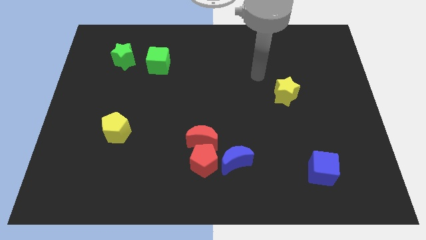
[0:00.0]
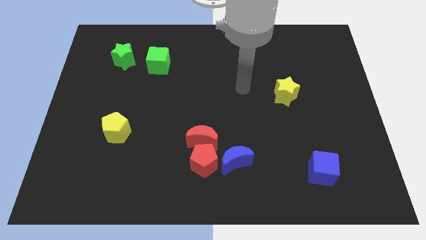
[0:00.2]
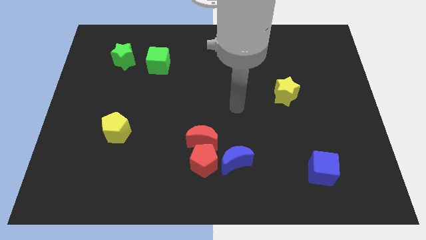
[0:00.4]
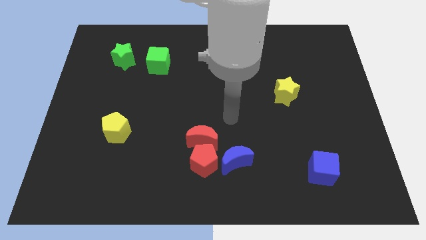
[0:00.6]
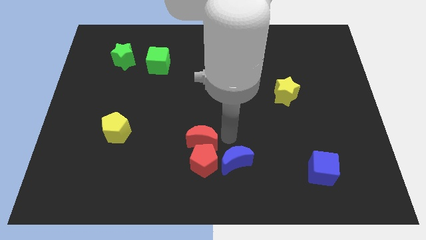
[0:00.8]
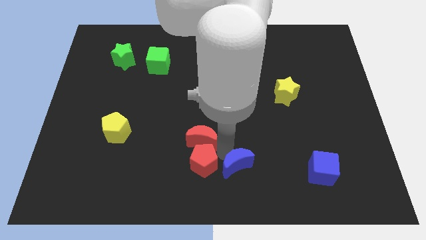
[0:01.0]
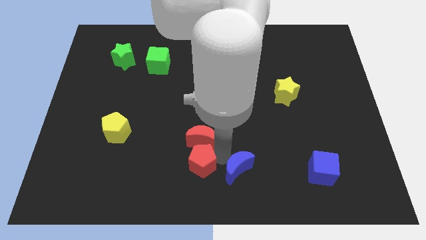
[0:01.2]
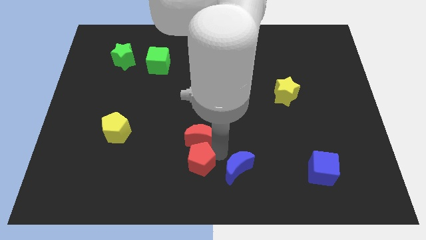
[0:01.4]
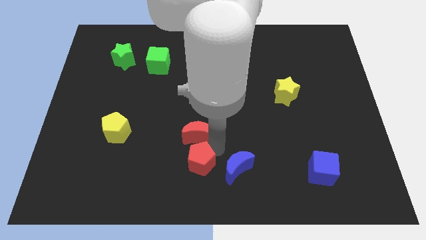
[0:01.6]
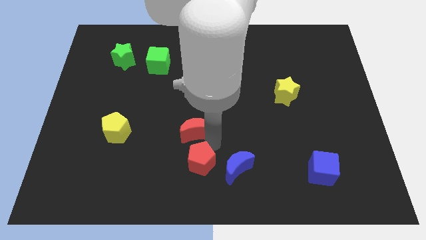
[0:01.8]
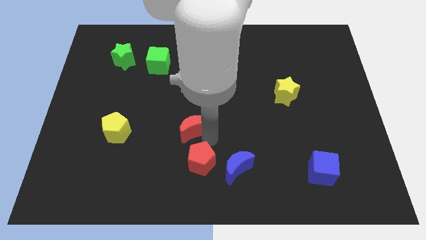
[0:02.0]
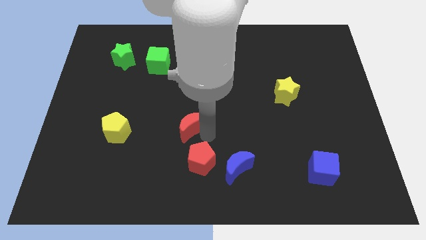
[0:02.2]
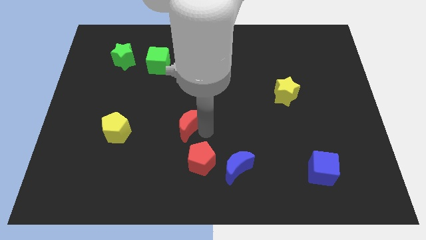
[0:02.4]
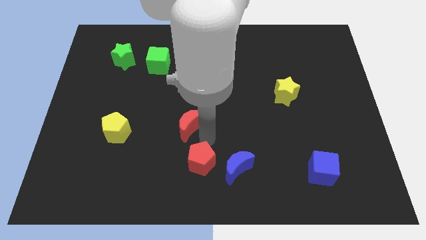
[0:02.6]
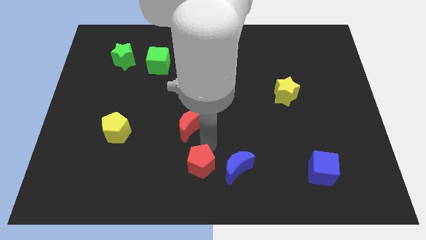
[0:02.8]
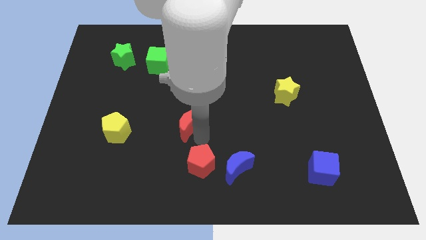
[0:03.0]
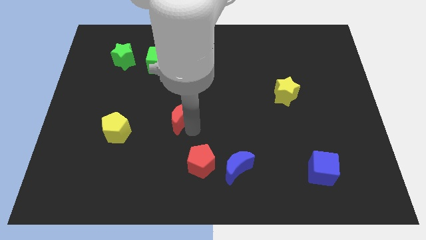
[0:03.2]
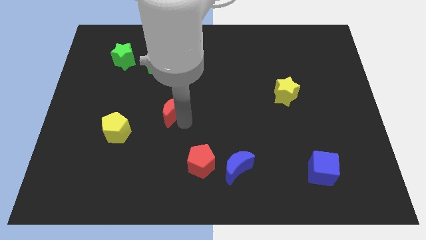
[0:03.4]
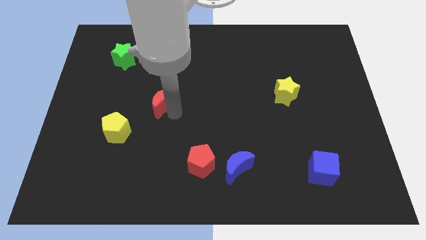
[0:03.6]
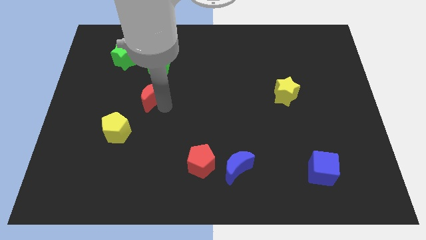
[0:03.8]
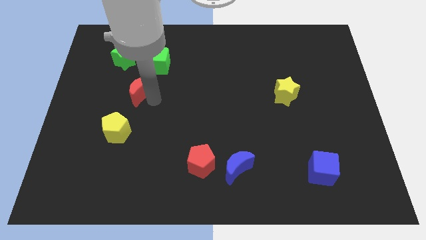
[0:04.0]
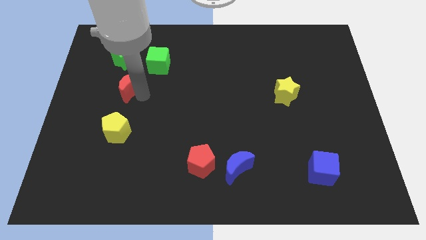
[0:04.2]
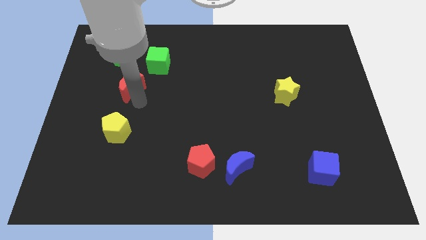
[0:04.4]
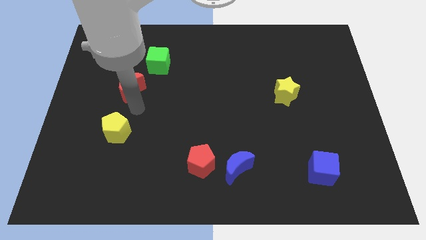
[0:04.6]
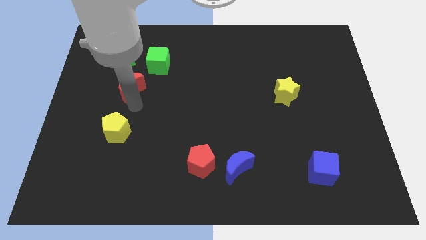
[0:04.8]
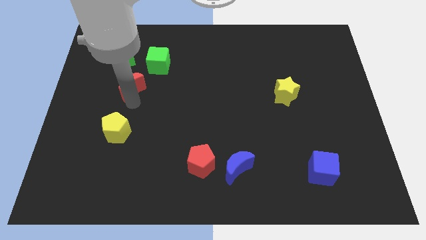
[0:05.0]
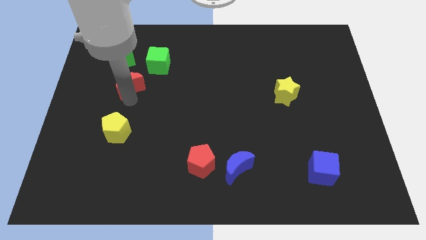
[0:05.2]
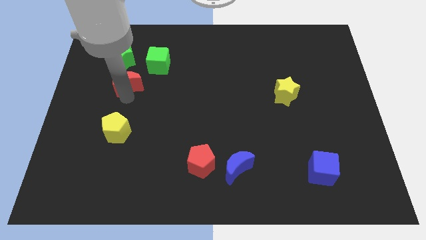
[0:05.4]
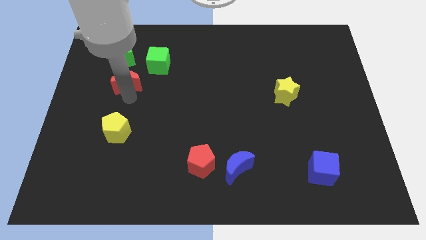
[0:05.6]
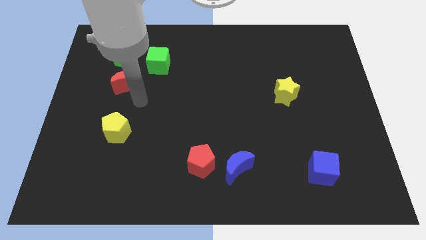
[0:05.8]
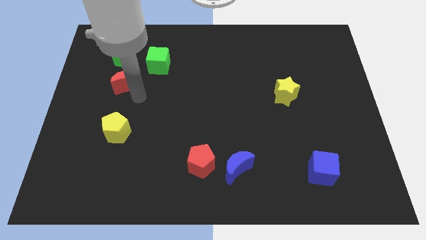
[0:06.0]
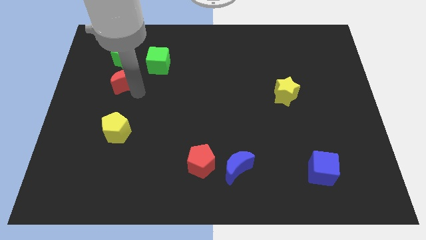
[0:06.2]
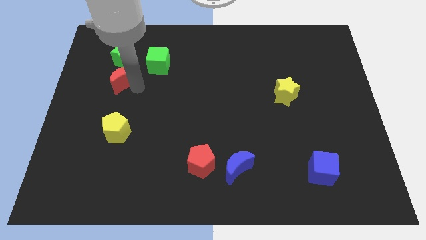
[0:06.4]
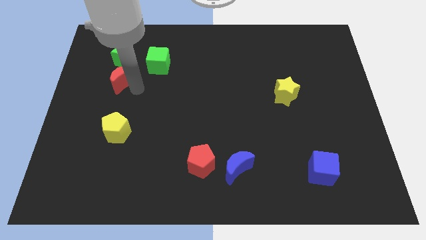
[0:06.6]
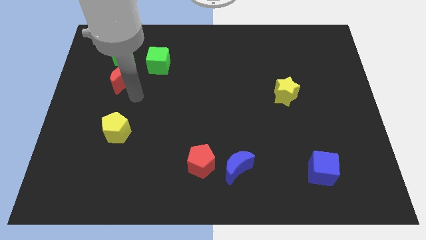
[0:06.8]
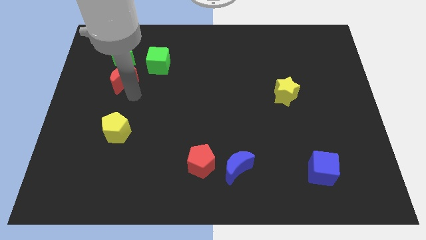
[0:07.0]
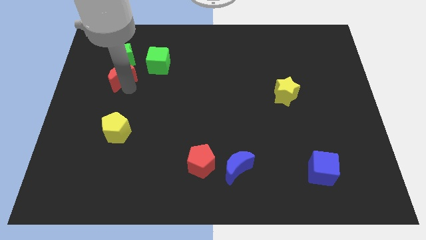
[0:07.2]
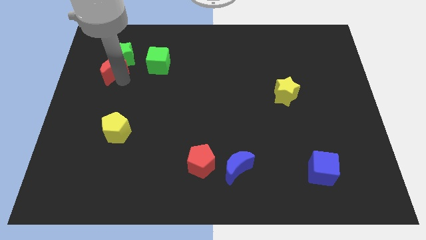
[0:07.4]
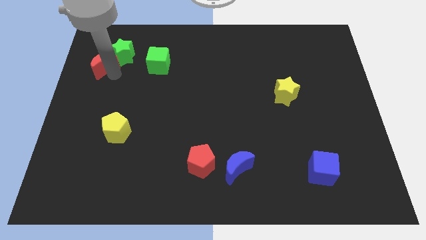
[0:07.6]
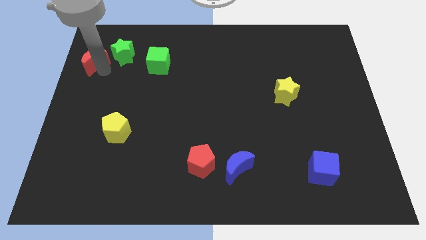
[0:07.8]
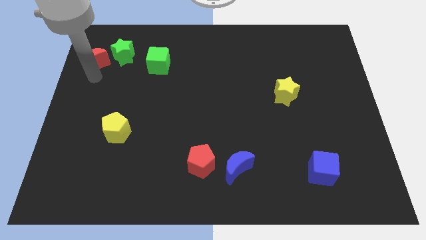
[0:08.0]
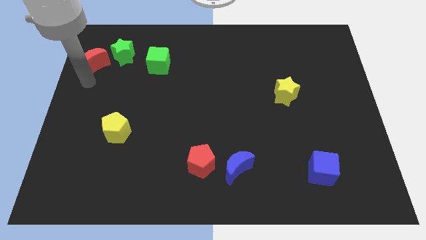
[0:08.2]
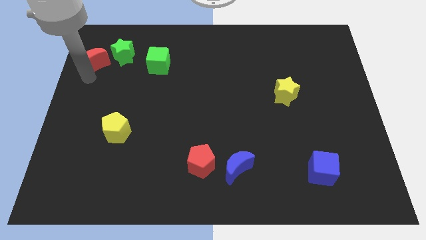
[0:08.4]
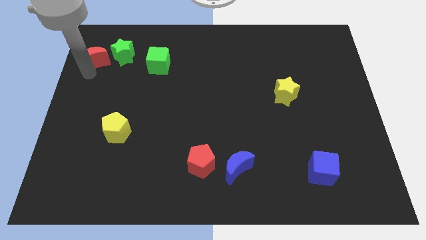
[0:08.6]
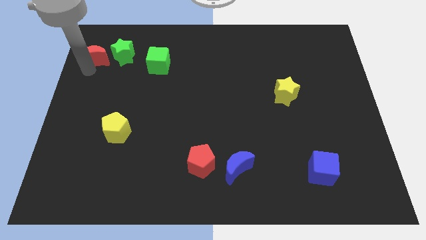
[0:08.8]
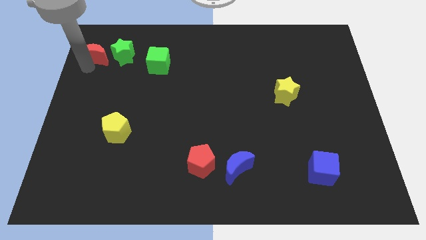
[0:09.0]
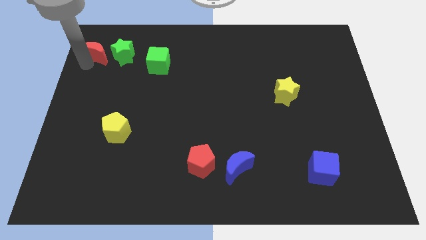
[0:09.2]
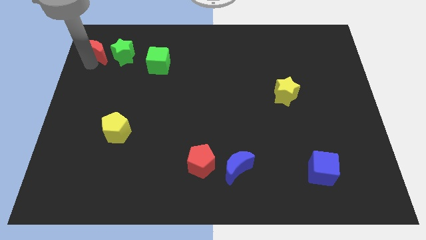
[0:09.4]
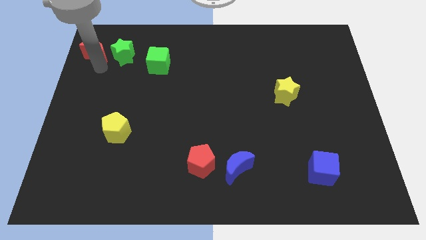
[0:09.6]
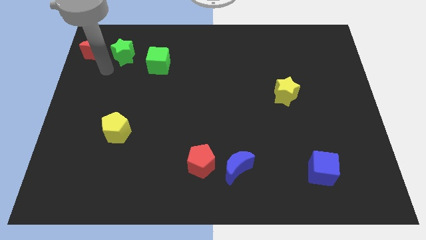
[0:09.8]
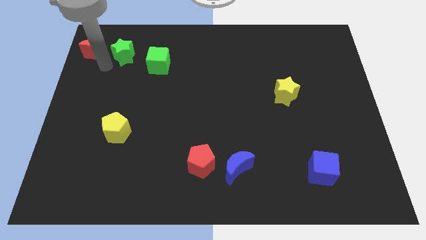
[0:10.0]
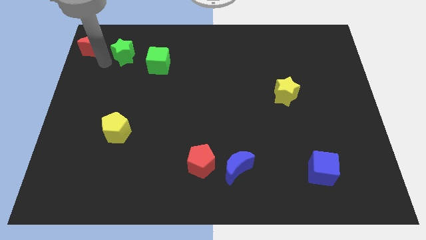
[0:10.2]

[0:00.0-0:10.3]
move the red moon to the upper left corner

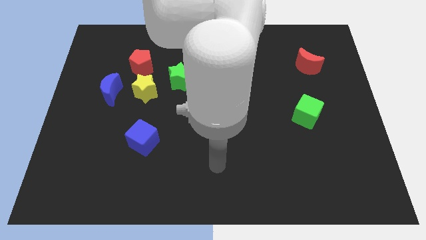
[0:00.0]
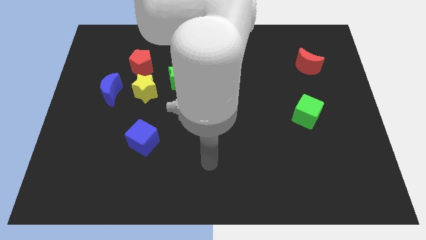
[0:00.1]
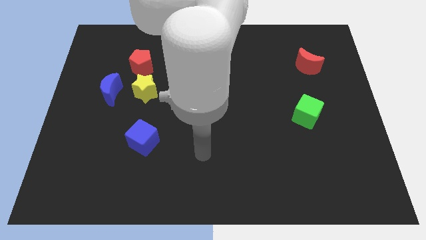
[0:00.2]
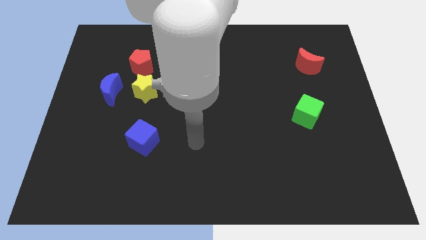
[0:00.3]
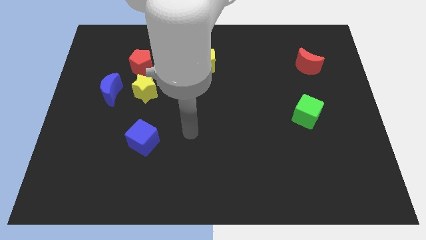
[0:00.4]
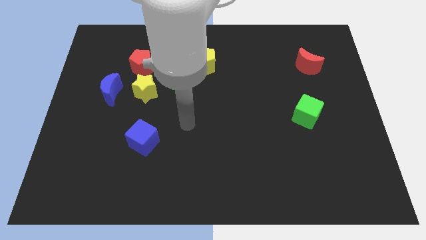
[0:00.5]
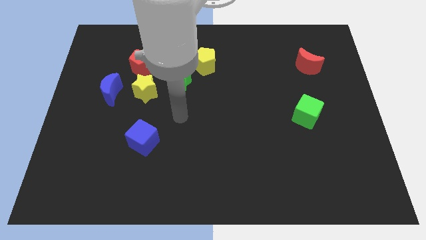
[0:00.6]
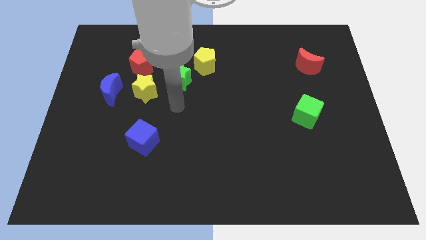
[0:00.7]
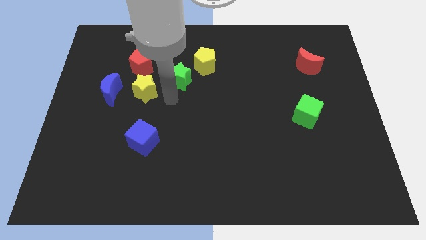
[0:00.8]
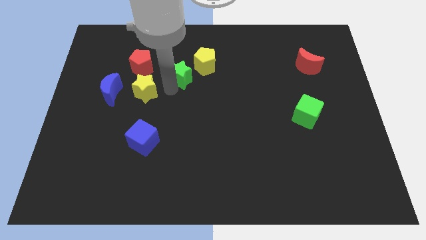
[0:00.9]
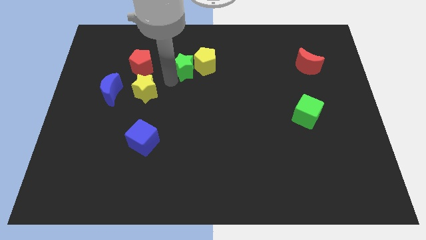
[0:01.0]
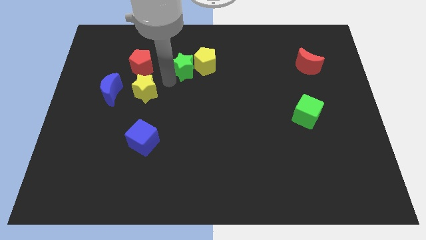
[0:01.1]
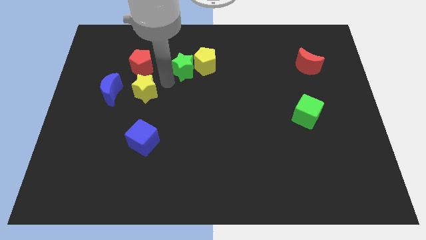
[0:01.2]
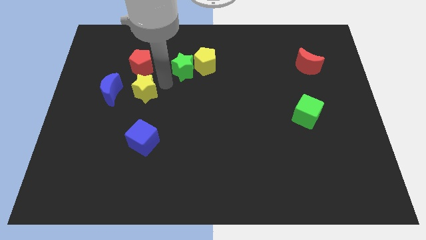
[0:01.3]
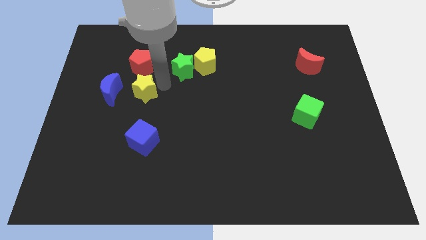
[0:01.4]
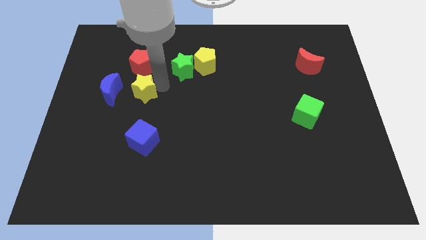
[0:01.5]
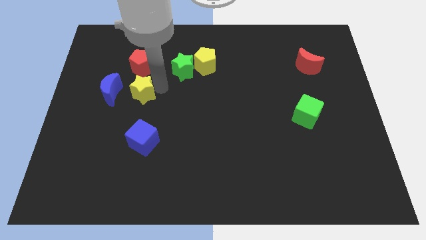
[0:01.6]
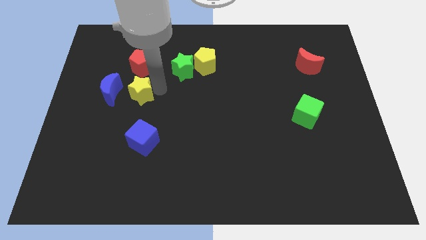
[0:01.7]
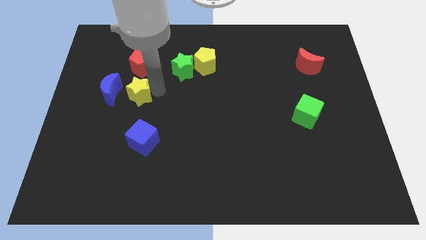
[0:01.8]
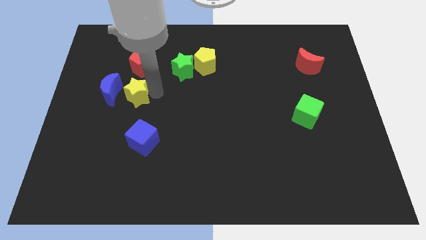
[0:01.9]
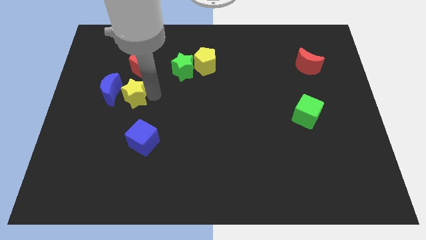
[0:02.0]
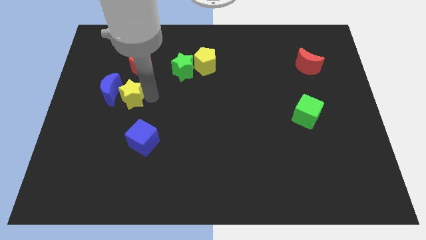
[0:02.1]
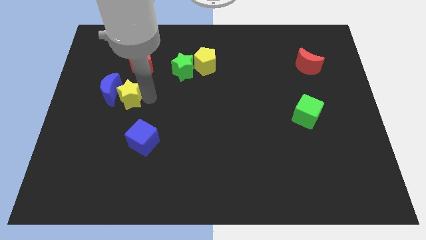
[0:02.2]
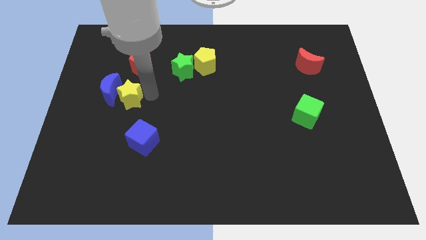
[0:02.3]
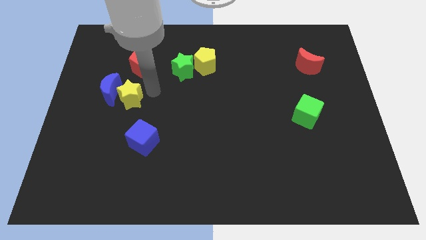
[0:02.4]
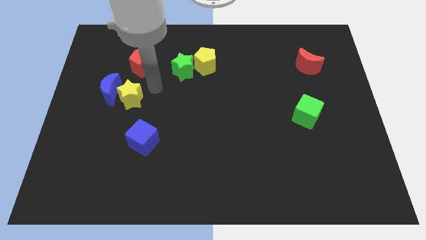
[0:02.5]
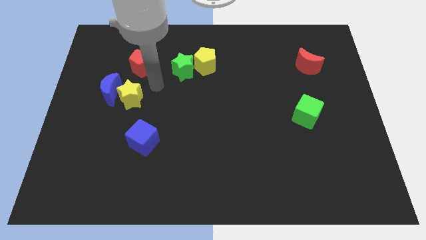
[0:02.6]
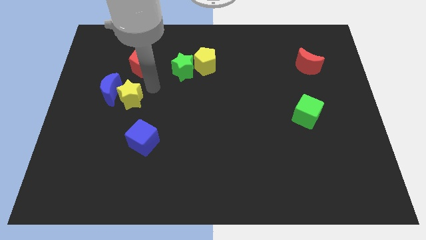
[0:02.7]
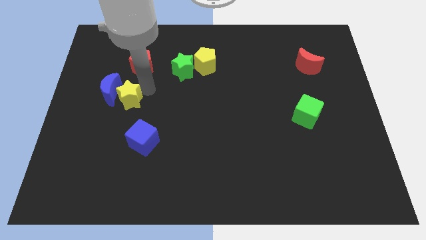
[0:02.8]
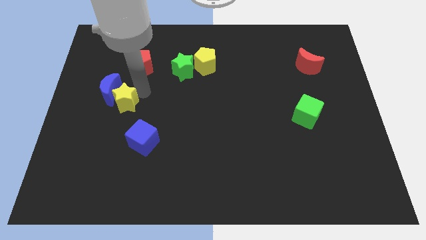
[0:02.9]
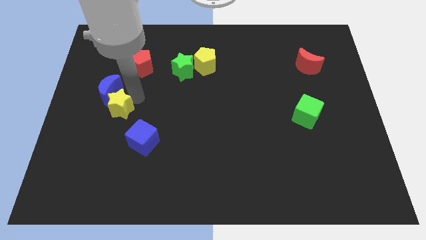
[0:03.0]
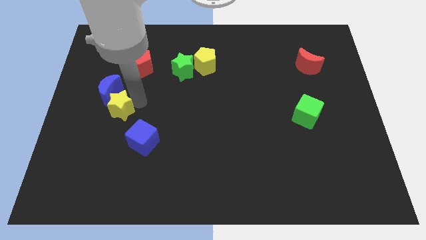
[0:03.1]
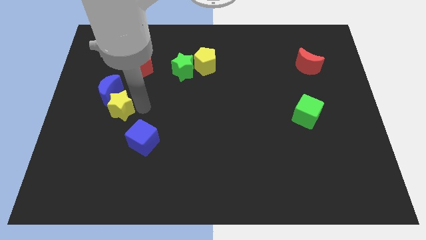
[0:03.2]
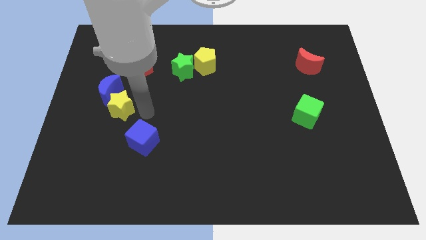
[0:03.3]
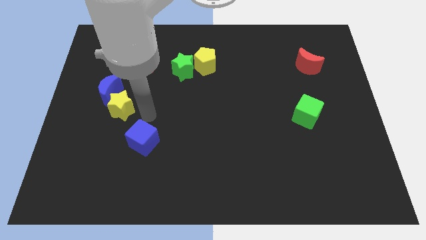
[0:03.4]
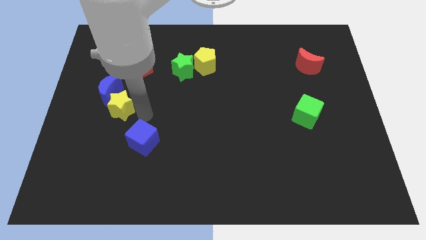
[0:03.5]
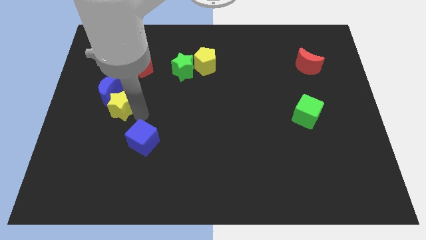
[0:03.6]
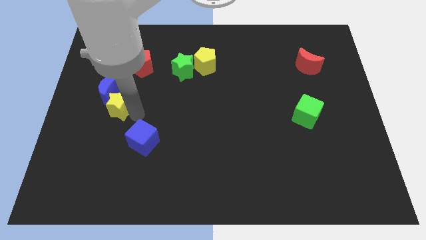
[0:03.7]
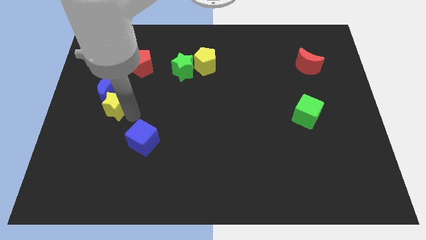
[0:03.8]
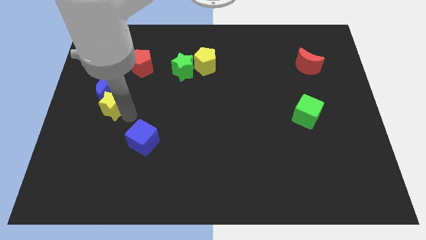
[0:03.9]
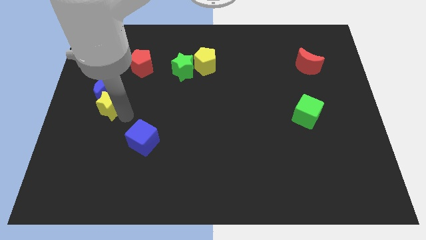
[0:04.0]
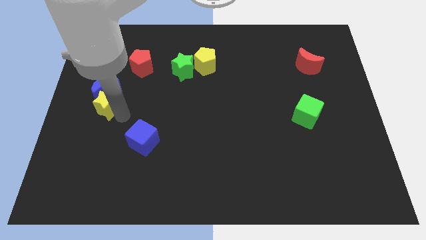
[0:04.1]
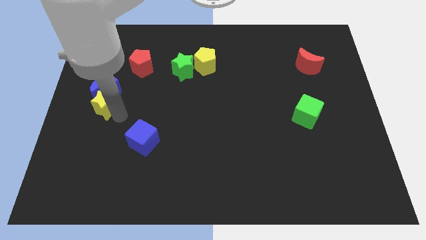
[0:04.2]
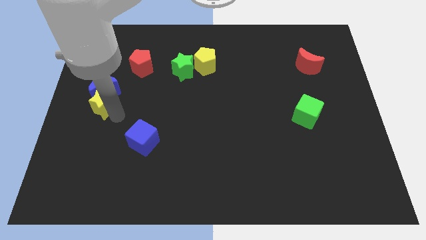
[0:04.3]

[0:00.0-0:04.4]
put the yellow star to the center left
